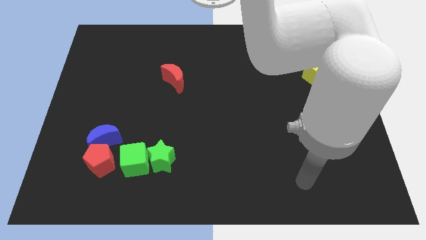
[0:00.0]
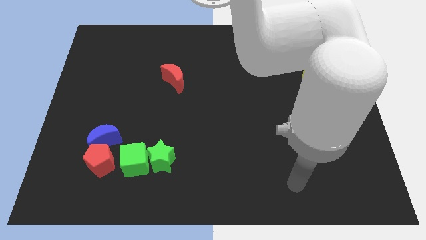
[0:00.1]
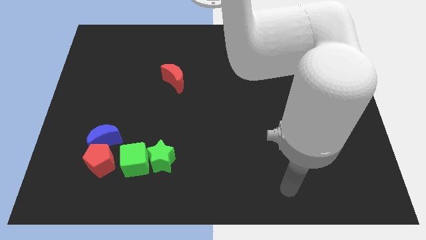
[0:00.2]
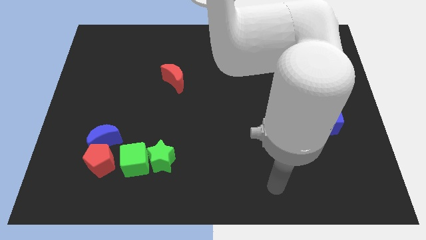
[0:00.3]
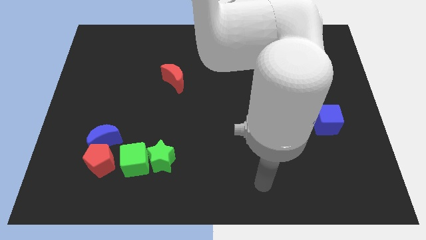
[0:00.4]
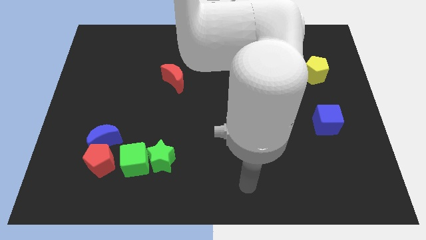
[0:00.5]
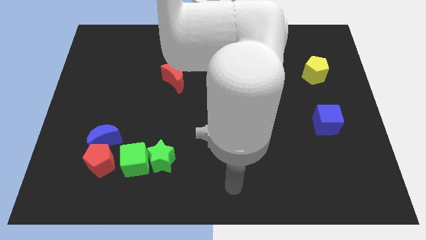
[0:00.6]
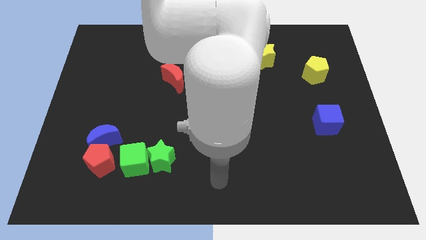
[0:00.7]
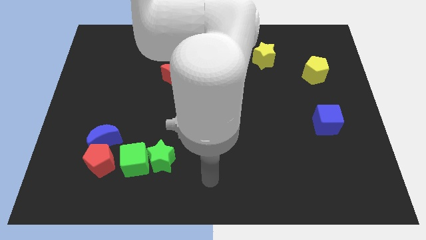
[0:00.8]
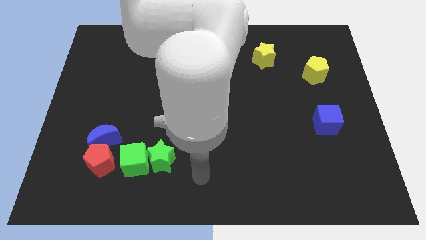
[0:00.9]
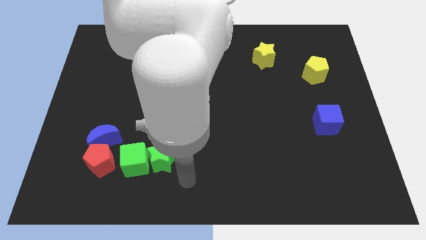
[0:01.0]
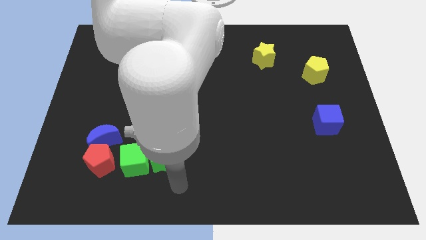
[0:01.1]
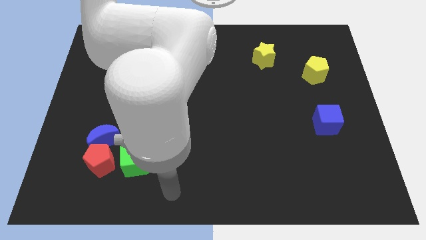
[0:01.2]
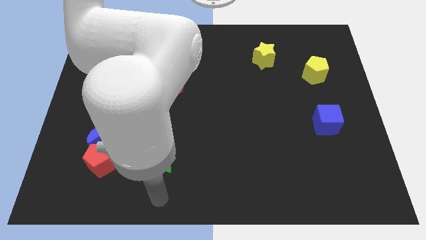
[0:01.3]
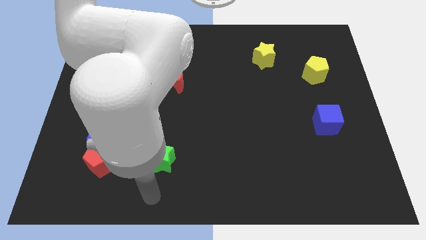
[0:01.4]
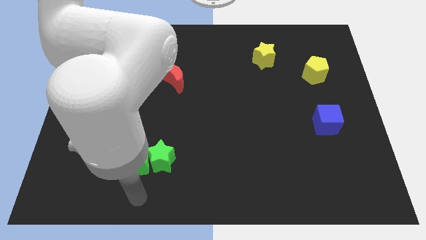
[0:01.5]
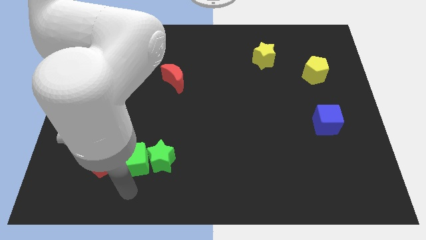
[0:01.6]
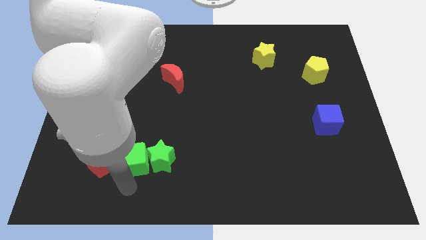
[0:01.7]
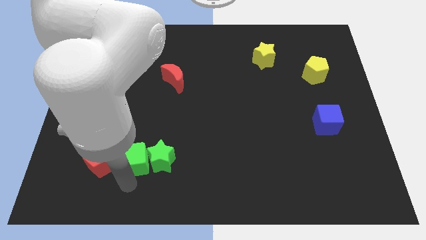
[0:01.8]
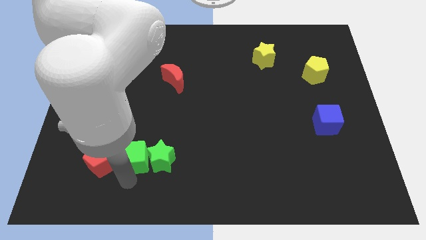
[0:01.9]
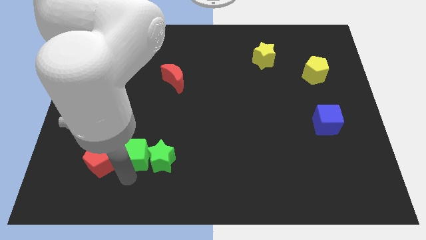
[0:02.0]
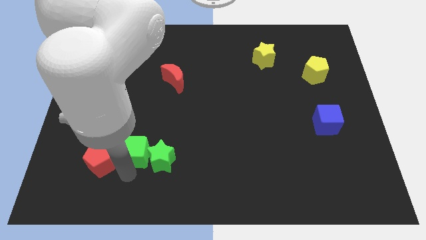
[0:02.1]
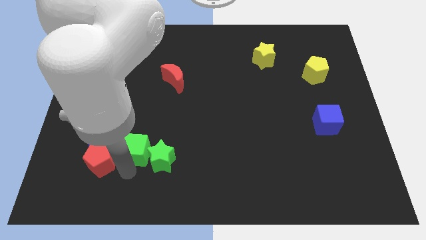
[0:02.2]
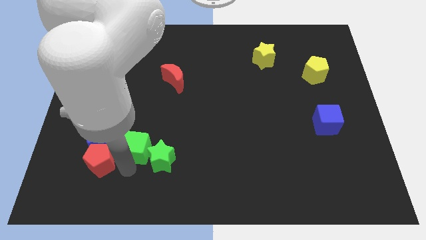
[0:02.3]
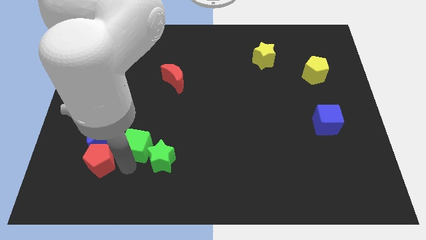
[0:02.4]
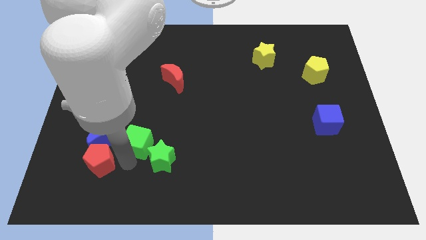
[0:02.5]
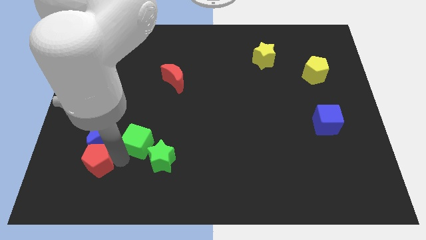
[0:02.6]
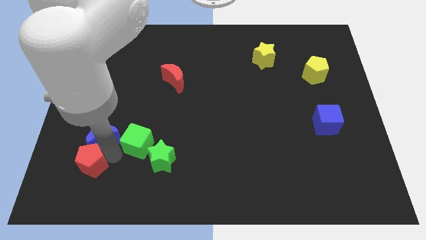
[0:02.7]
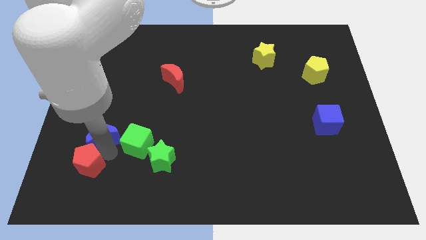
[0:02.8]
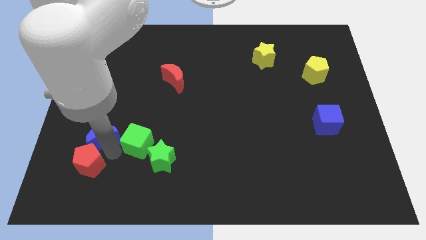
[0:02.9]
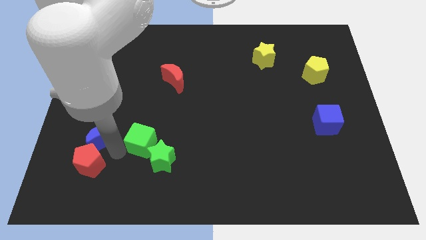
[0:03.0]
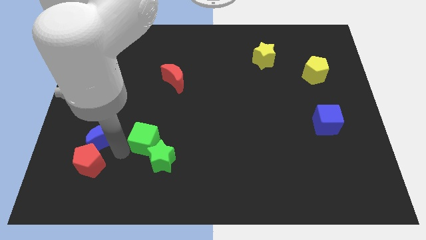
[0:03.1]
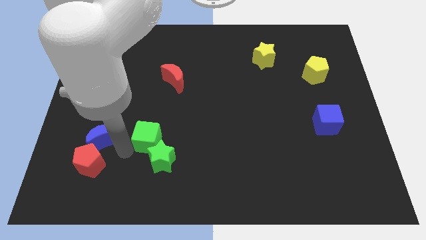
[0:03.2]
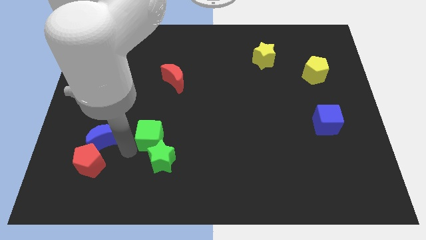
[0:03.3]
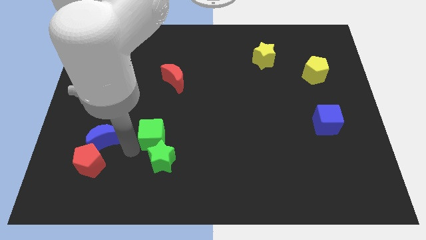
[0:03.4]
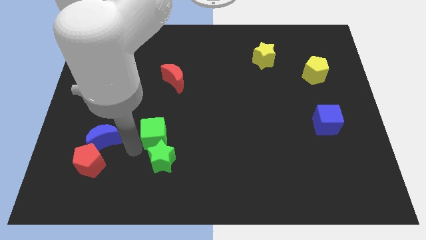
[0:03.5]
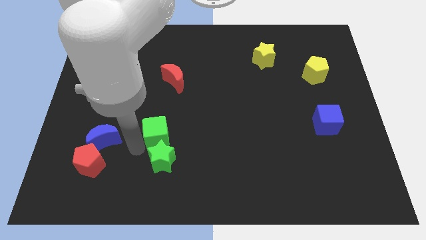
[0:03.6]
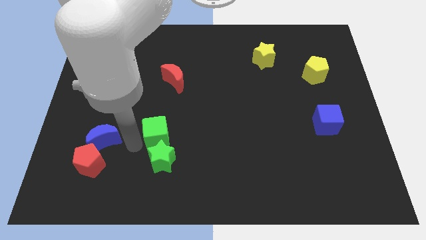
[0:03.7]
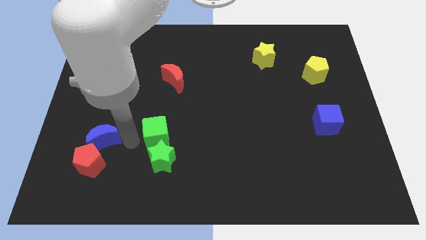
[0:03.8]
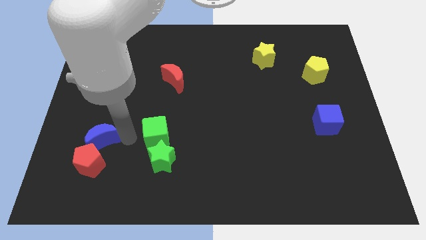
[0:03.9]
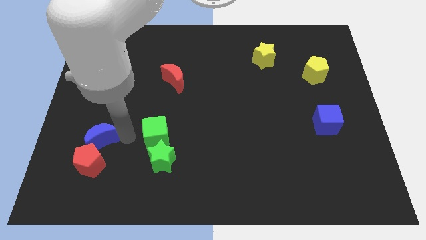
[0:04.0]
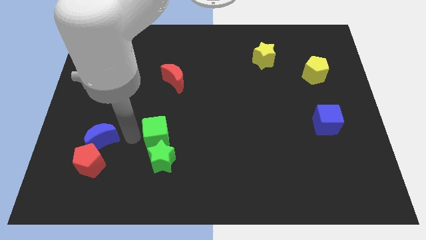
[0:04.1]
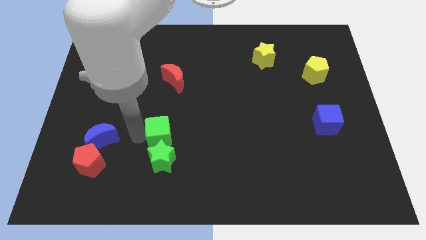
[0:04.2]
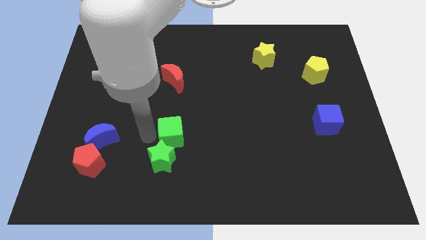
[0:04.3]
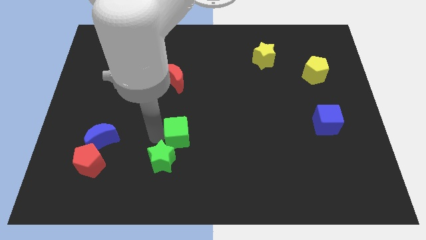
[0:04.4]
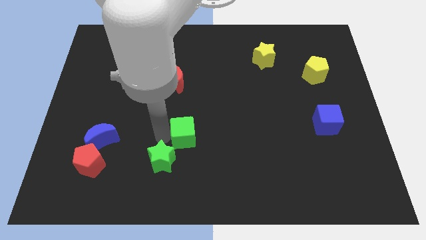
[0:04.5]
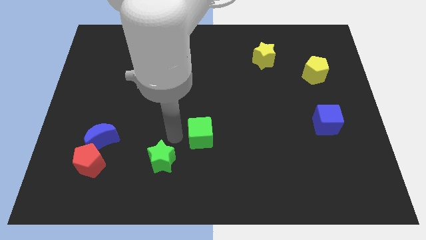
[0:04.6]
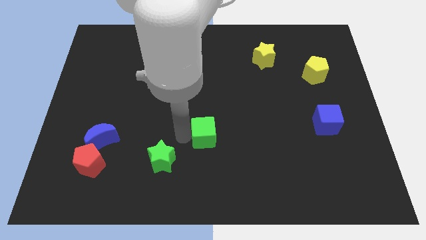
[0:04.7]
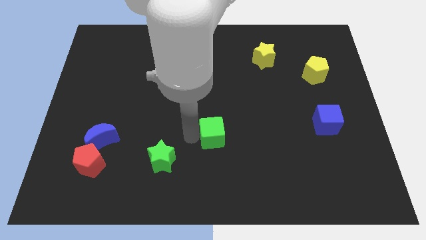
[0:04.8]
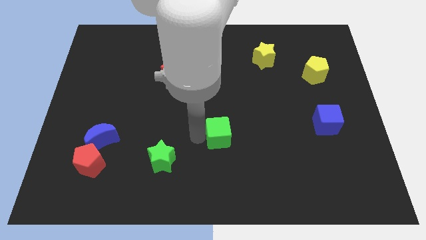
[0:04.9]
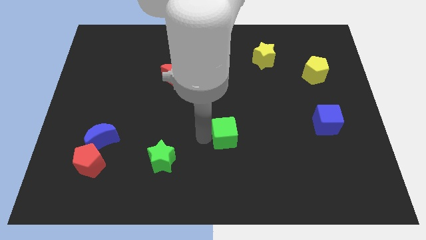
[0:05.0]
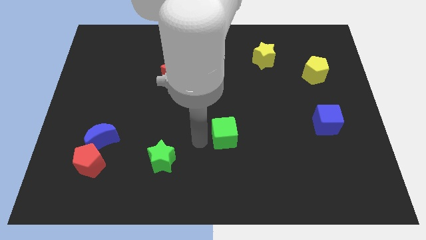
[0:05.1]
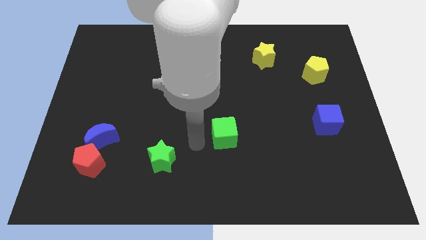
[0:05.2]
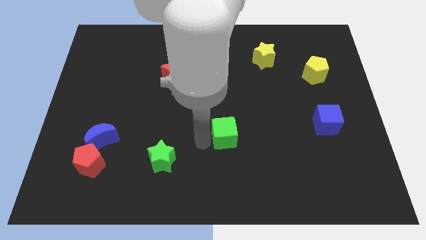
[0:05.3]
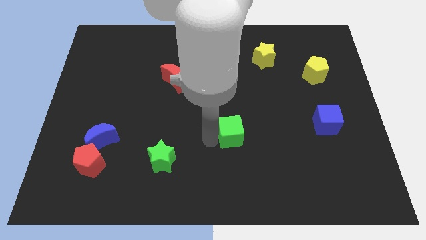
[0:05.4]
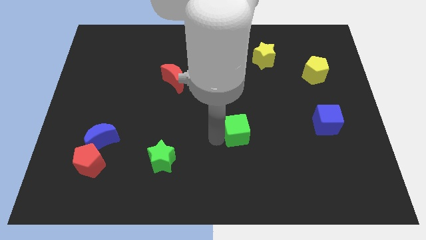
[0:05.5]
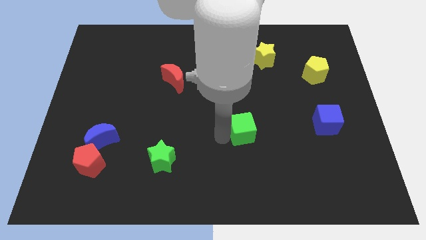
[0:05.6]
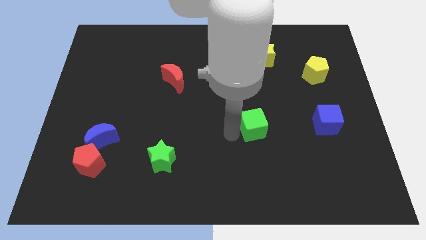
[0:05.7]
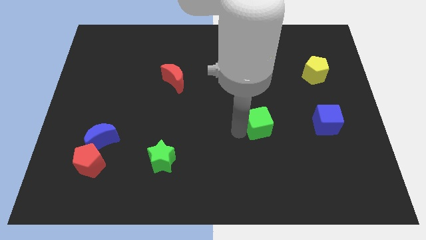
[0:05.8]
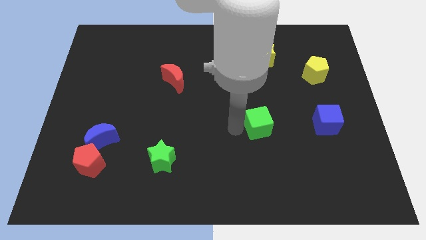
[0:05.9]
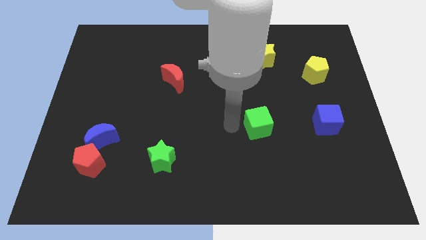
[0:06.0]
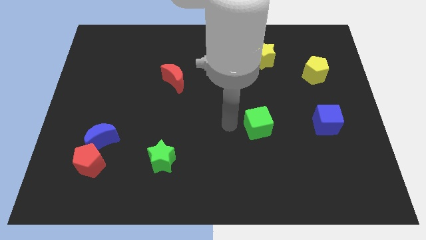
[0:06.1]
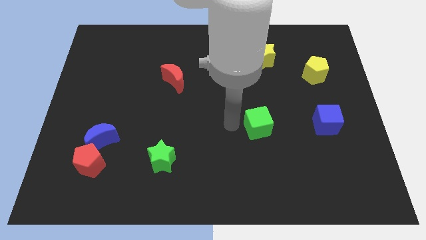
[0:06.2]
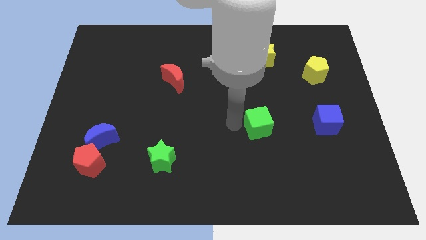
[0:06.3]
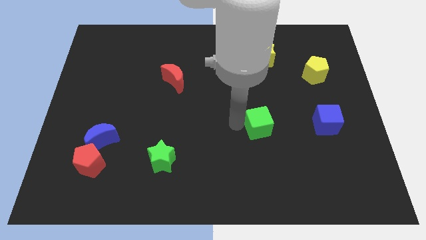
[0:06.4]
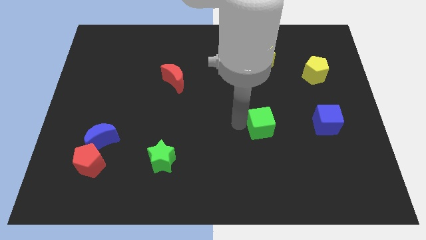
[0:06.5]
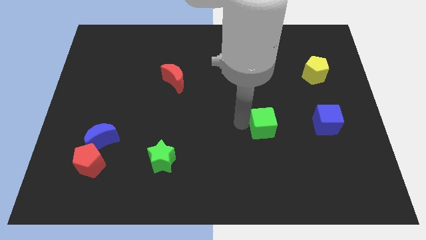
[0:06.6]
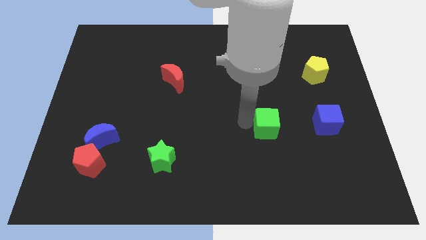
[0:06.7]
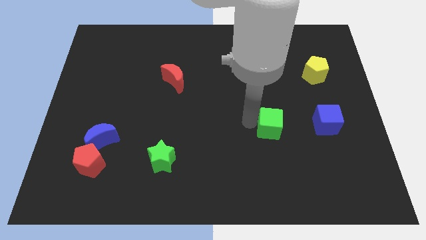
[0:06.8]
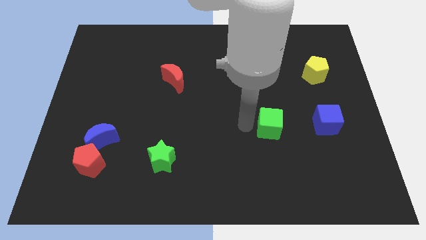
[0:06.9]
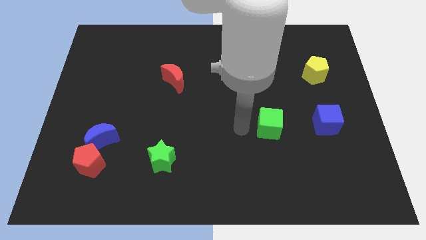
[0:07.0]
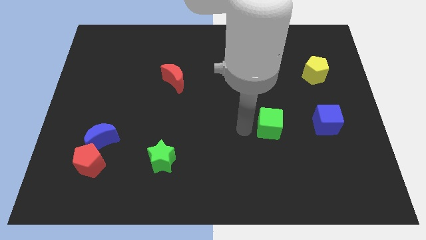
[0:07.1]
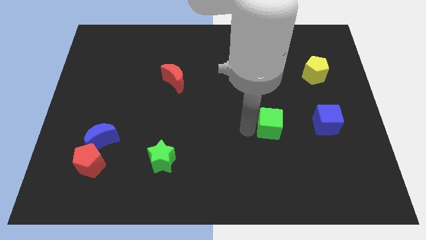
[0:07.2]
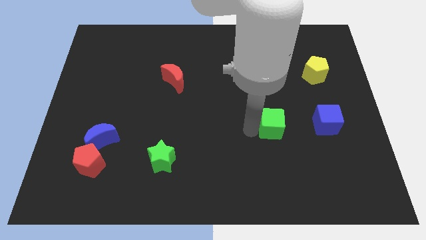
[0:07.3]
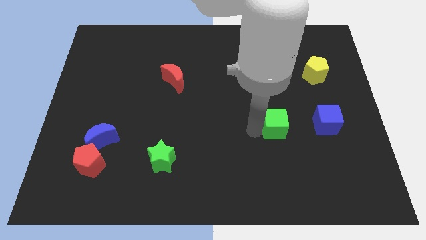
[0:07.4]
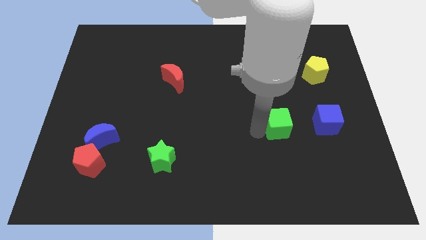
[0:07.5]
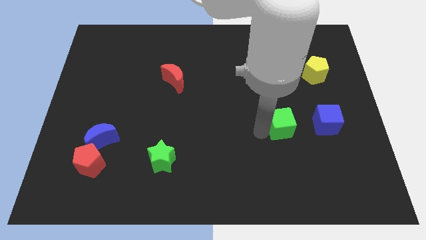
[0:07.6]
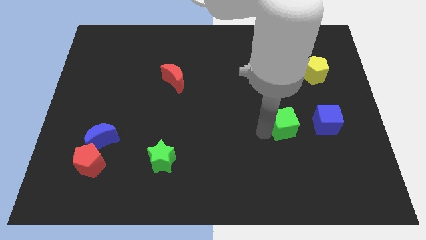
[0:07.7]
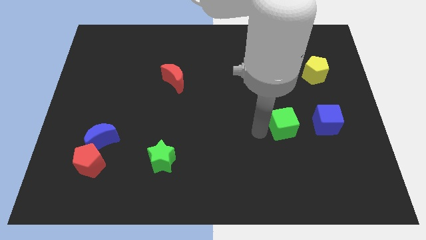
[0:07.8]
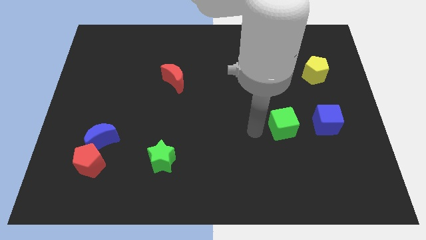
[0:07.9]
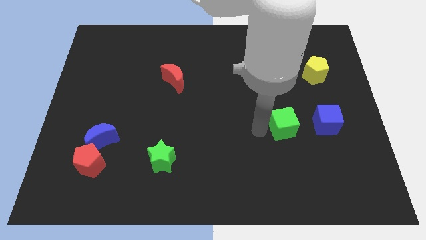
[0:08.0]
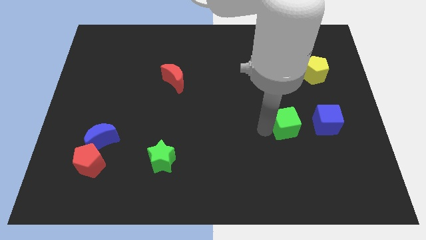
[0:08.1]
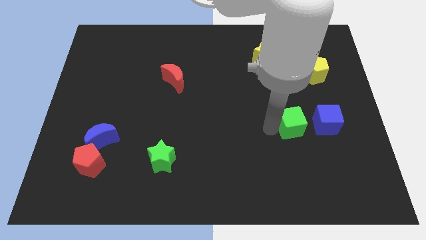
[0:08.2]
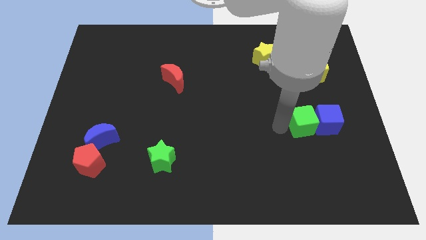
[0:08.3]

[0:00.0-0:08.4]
slide the green cube towards the blue cube
